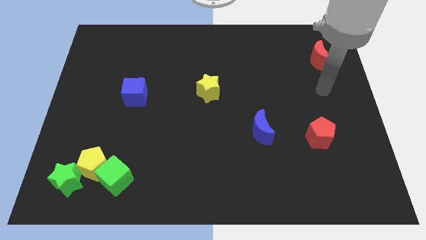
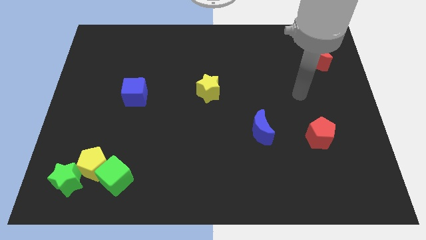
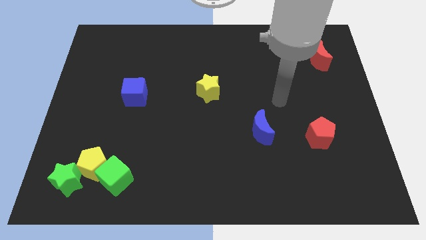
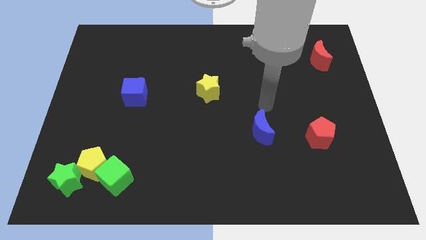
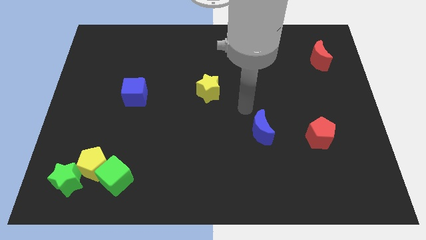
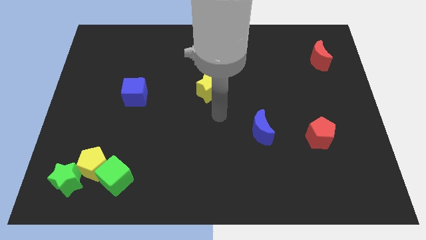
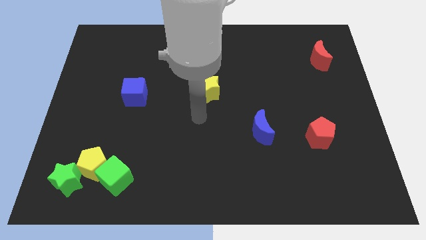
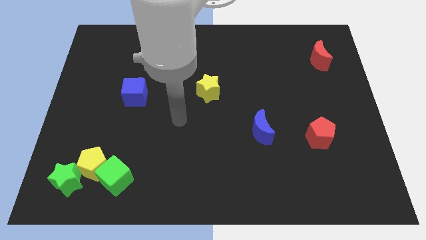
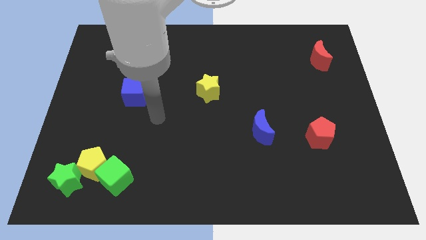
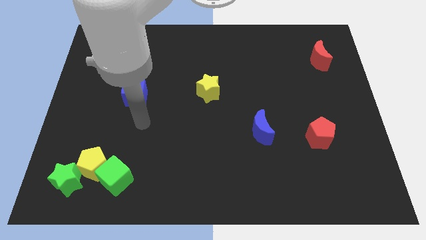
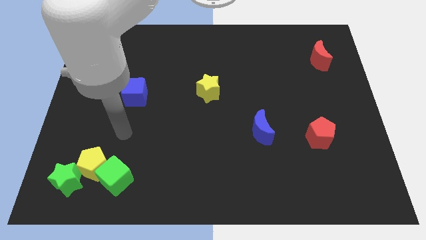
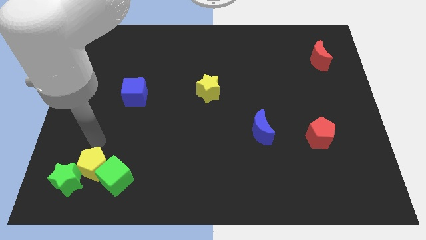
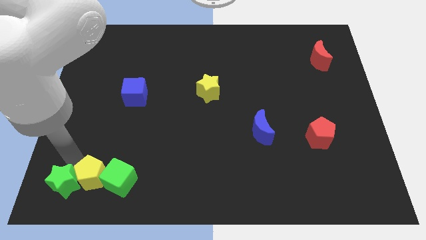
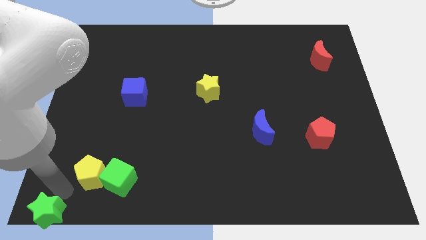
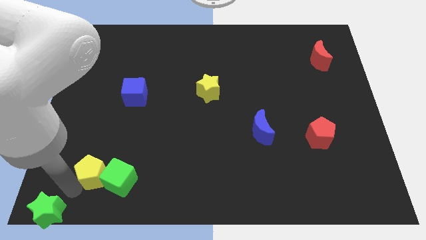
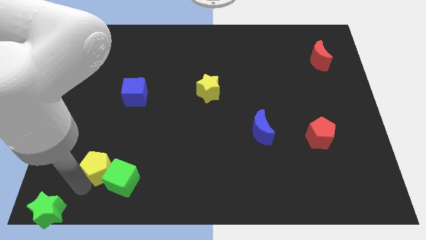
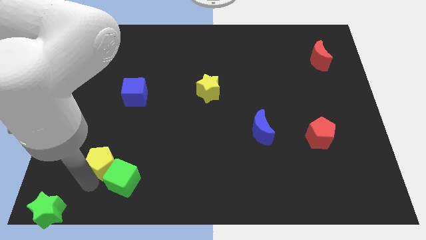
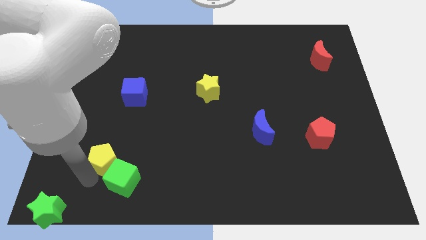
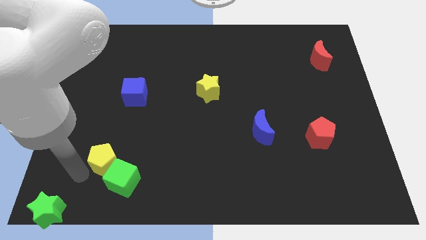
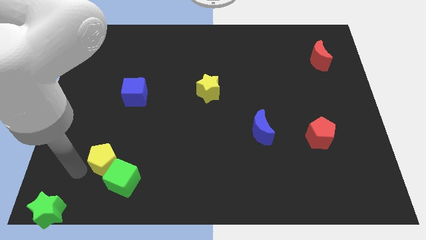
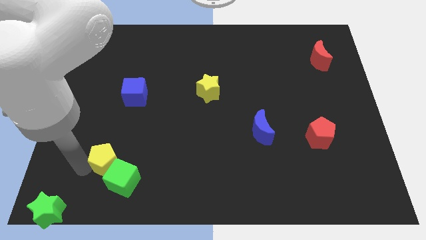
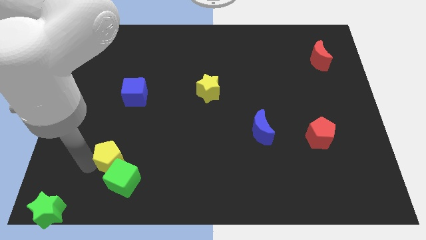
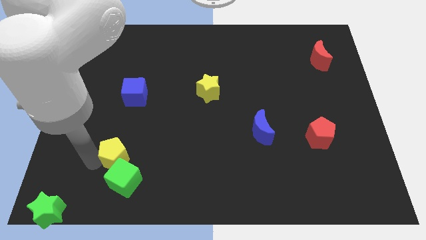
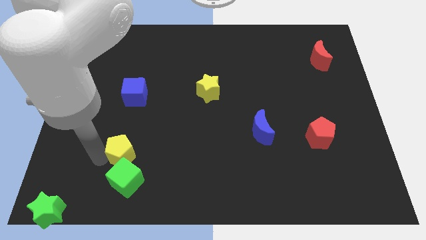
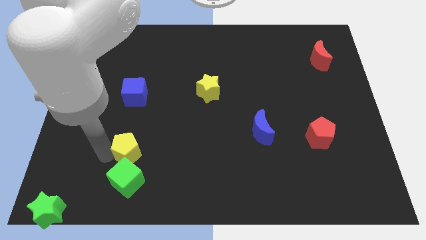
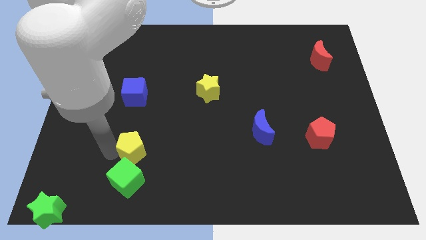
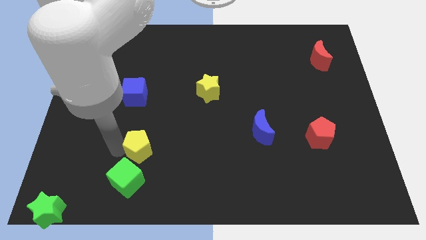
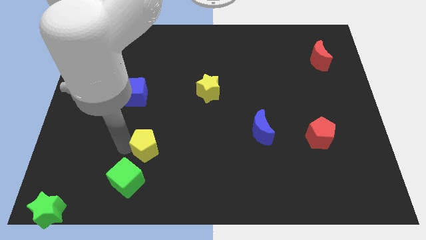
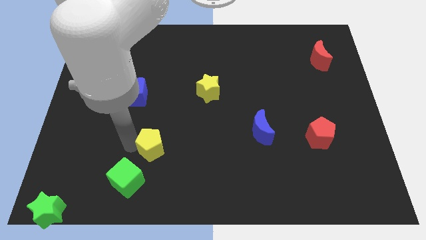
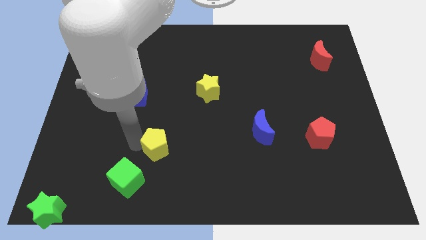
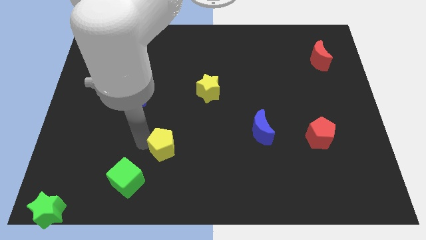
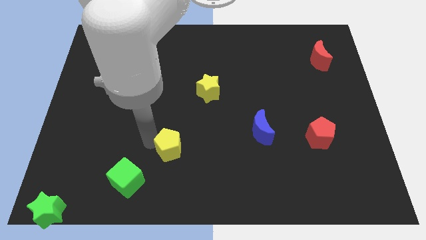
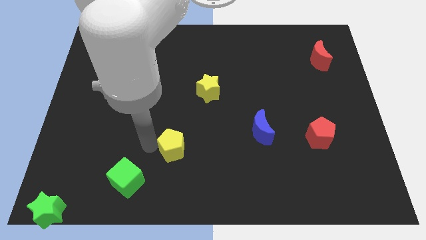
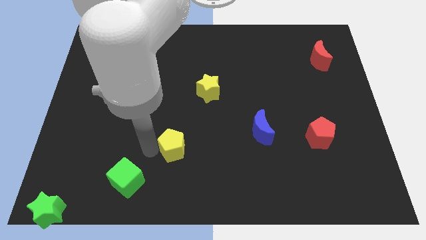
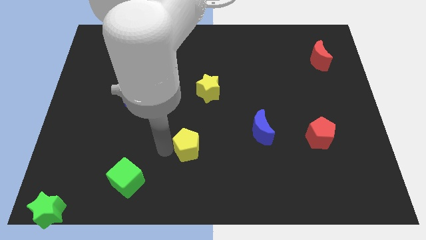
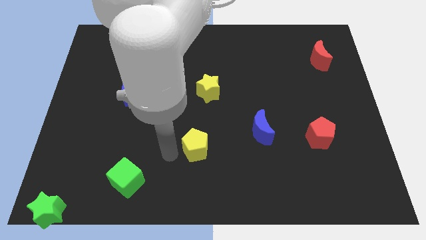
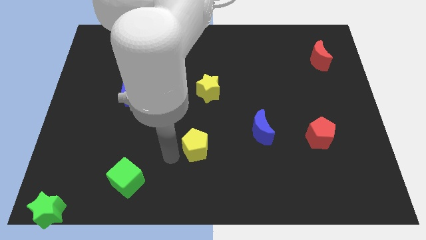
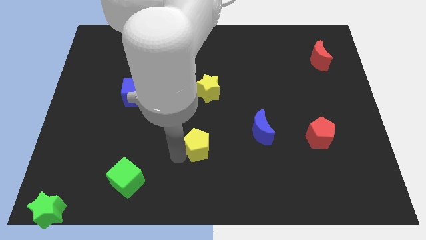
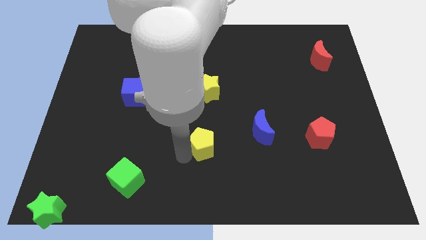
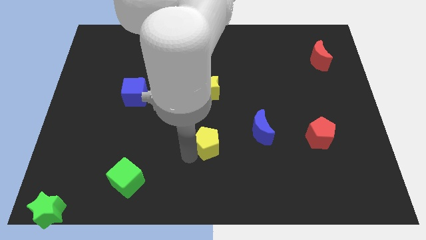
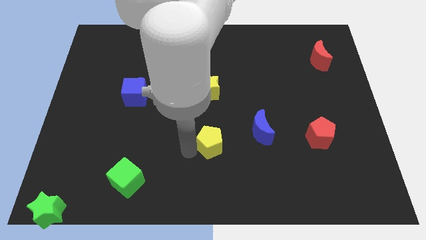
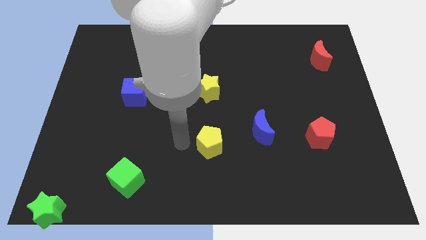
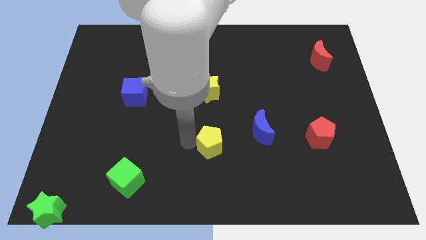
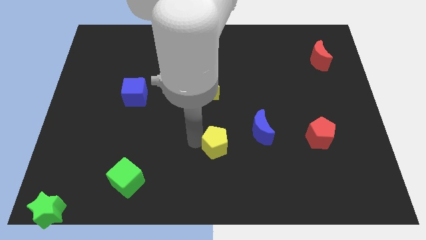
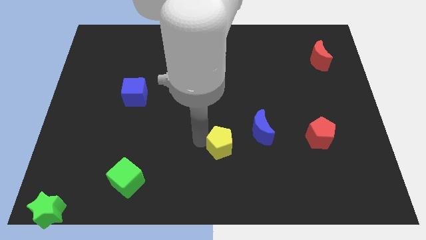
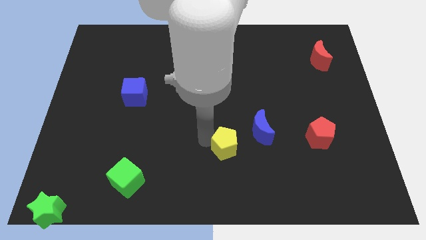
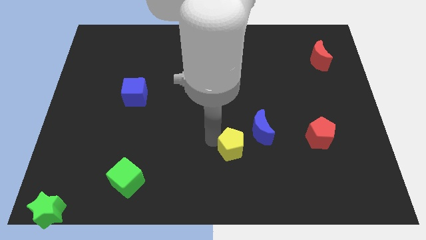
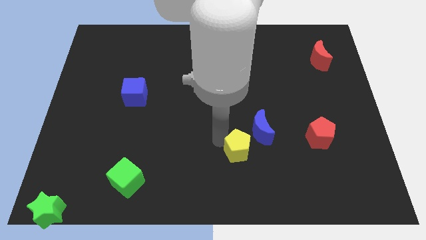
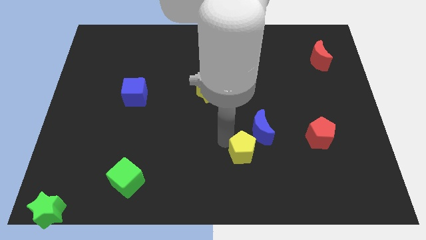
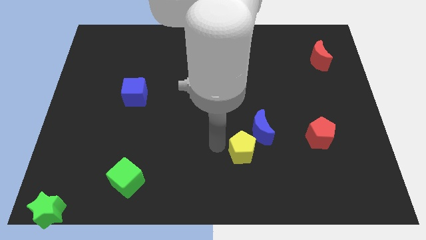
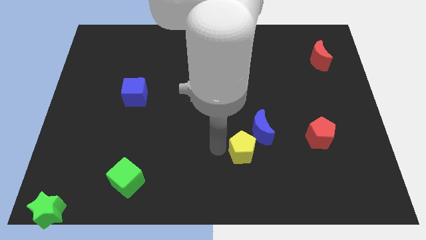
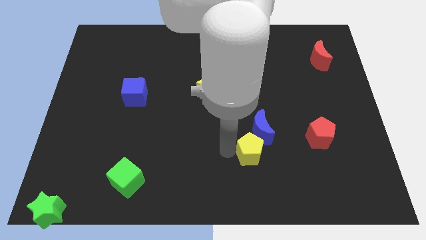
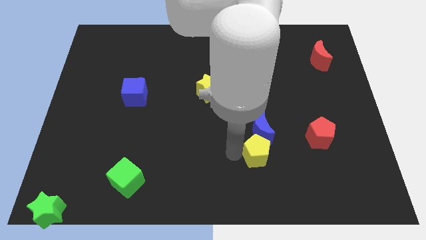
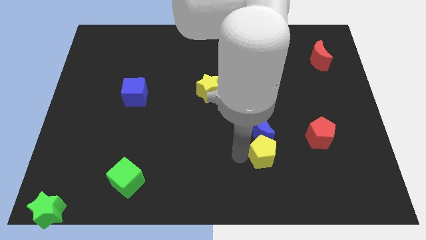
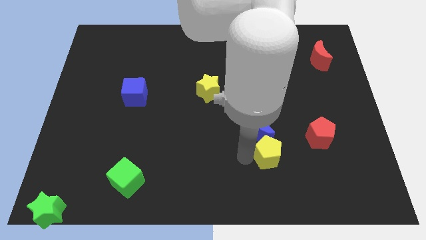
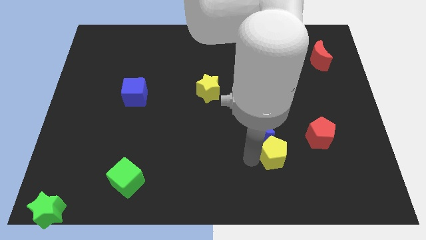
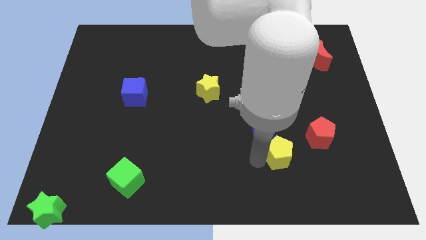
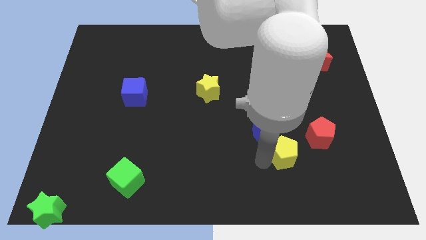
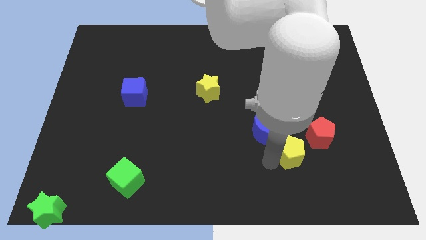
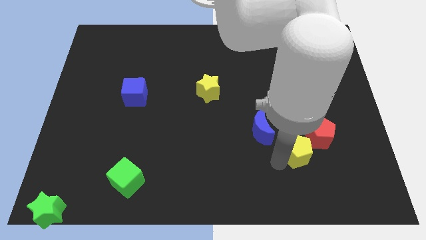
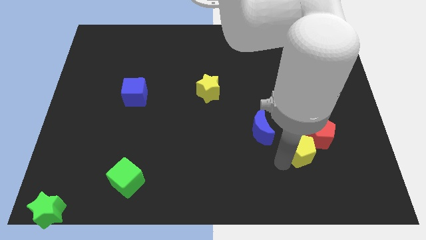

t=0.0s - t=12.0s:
slide the yellow pentagon towards the red pentagon

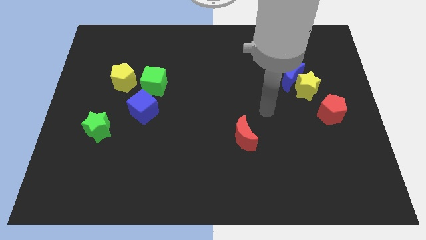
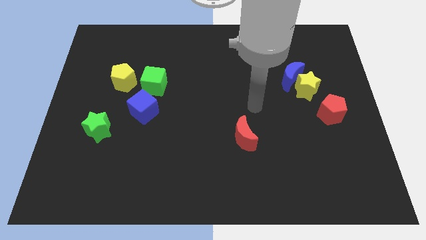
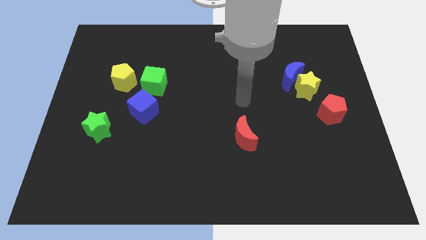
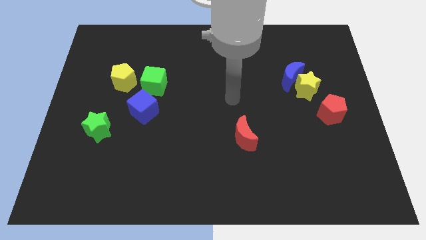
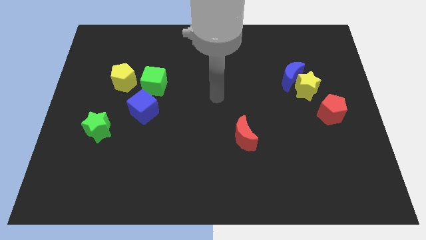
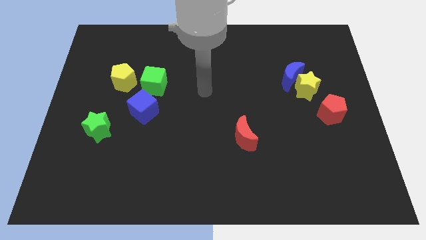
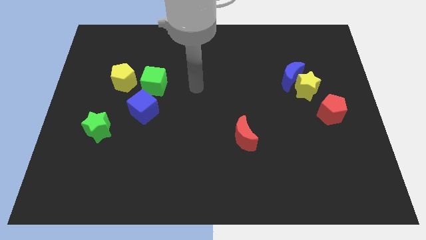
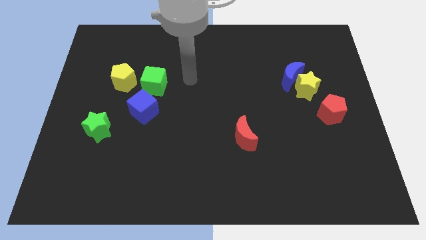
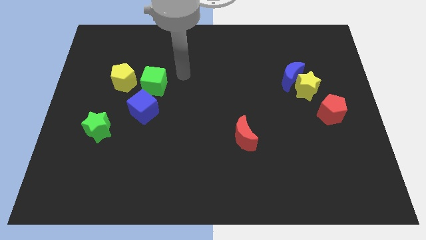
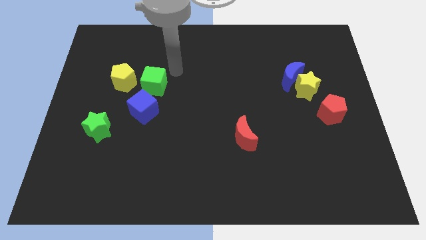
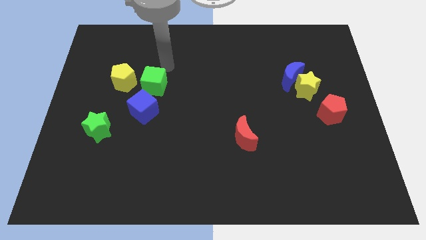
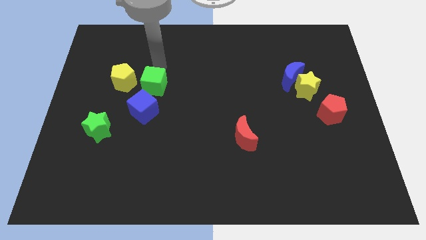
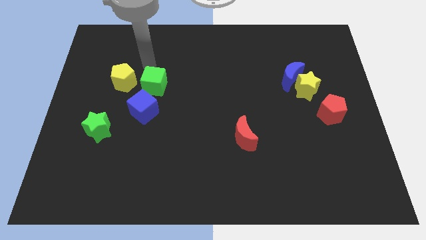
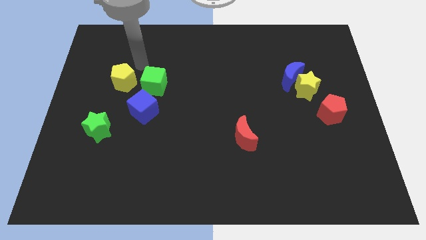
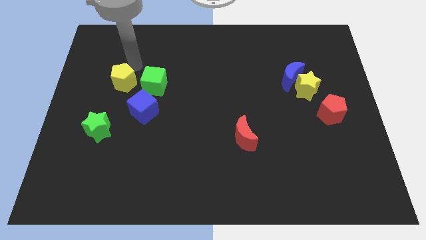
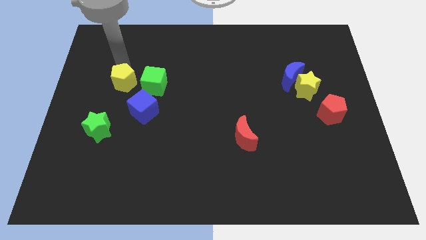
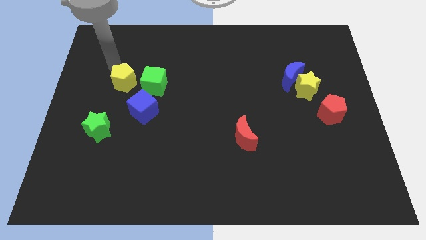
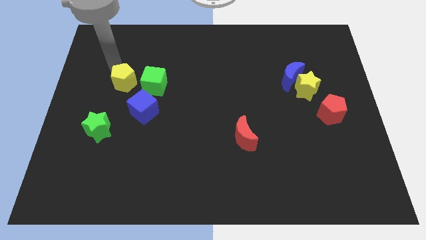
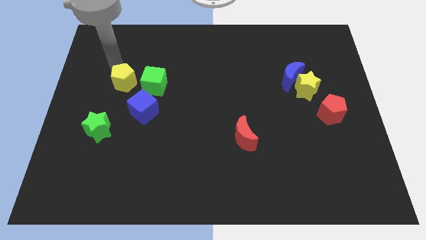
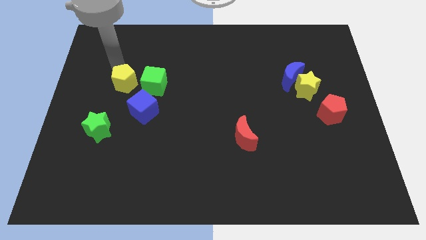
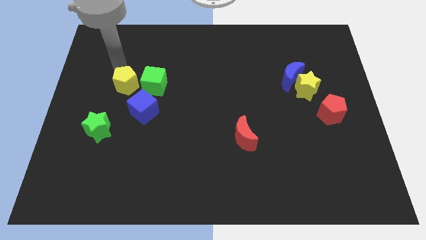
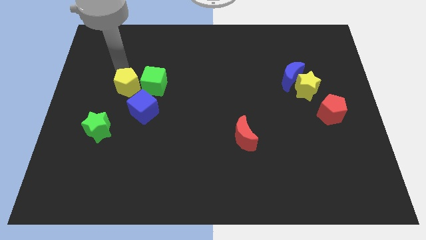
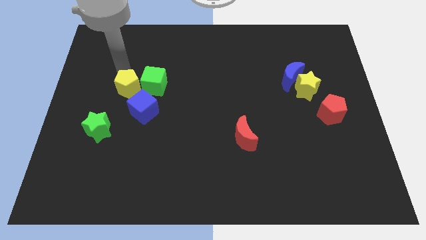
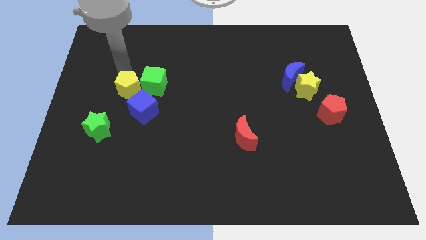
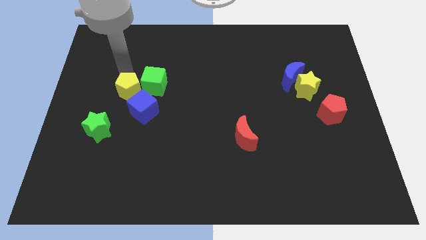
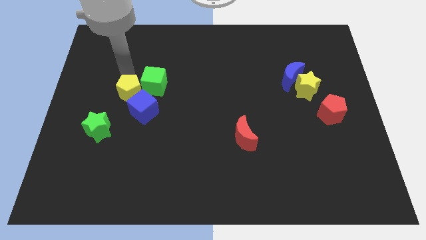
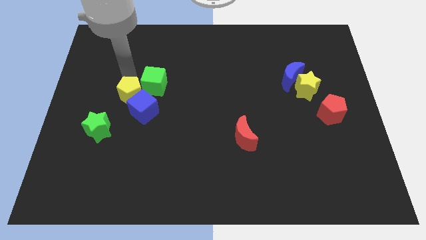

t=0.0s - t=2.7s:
push the yellow pentagon close to the blue cube
